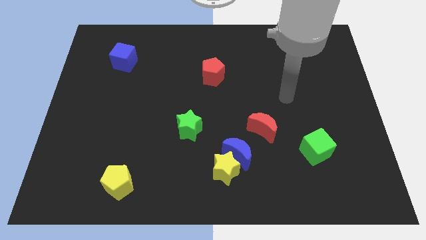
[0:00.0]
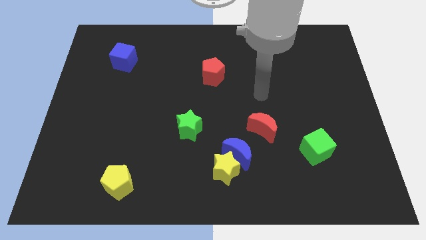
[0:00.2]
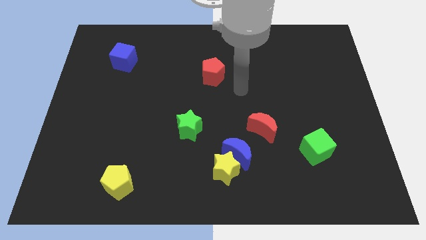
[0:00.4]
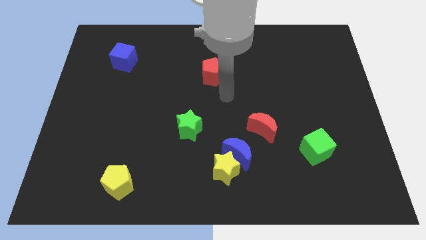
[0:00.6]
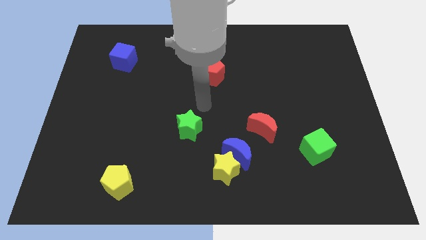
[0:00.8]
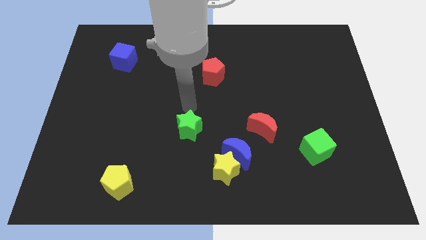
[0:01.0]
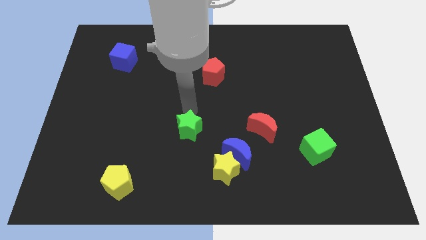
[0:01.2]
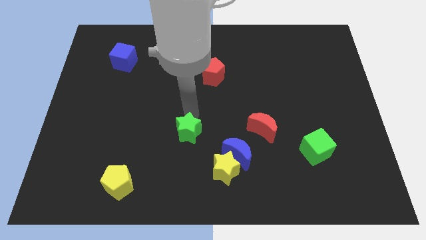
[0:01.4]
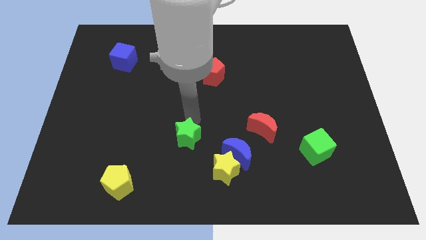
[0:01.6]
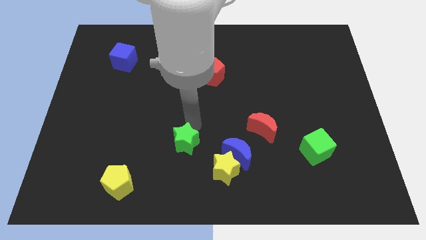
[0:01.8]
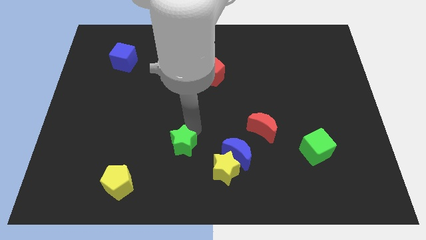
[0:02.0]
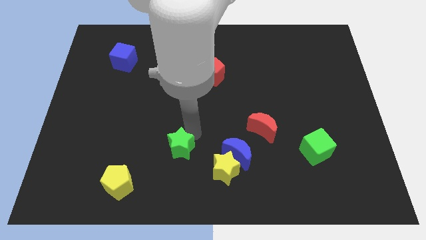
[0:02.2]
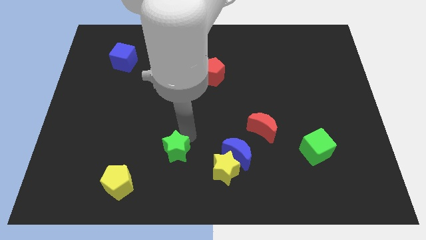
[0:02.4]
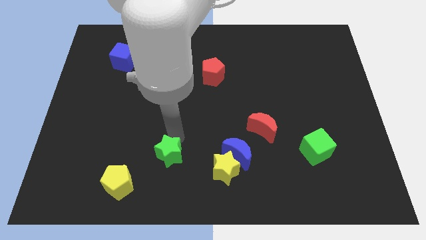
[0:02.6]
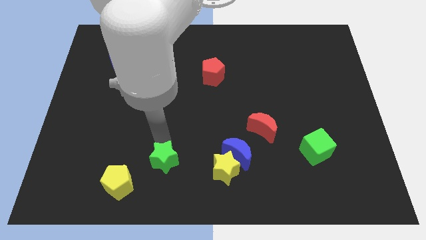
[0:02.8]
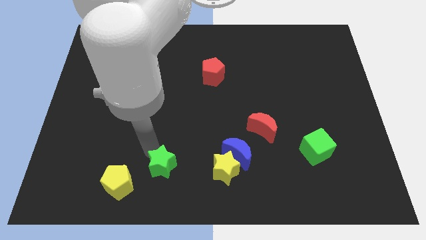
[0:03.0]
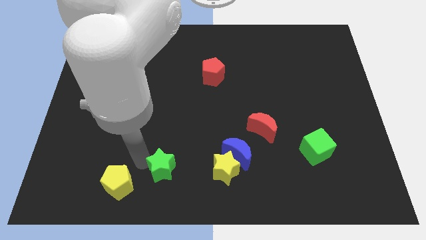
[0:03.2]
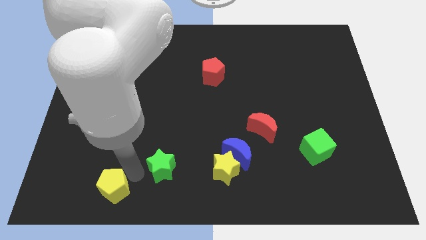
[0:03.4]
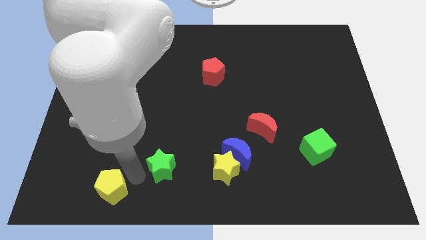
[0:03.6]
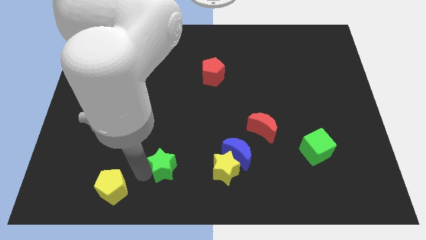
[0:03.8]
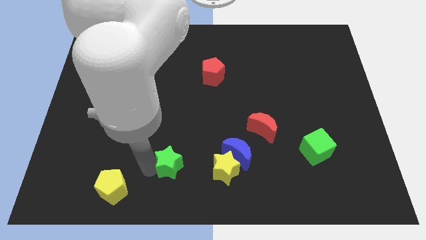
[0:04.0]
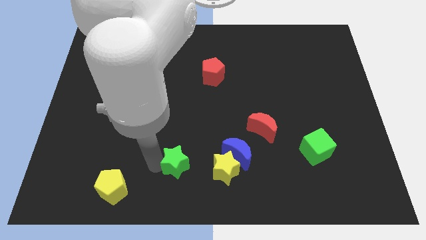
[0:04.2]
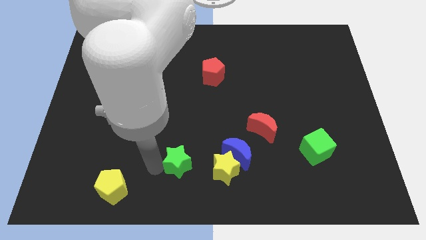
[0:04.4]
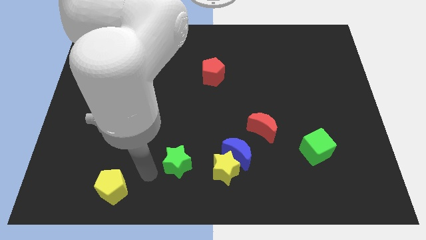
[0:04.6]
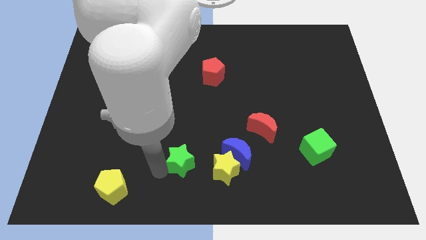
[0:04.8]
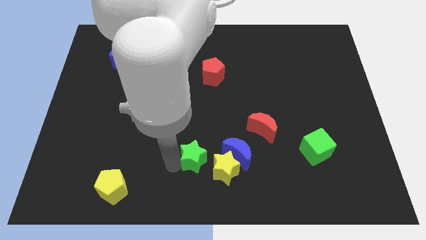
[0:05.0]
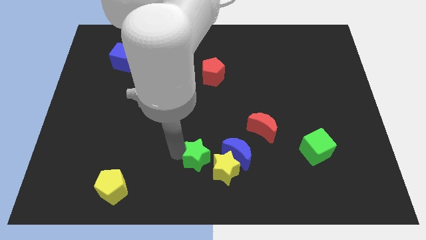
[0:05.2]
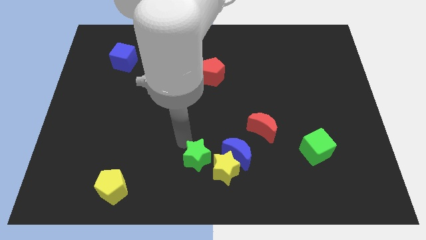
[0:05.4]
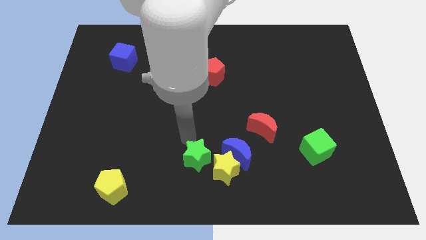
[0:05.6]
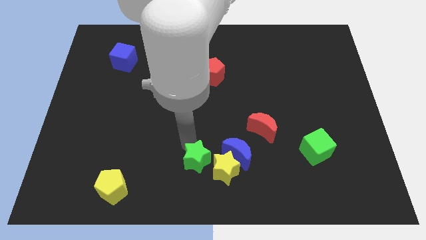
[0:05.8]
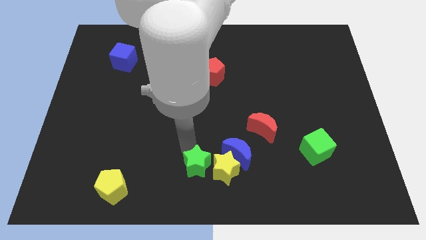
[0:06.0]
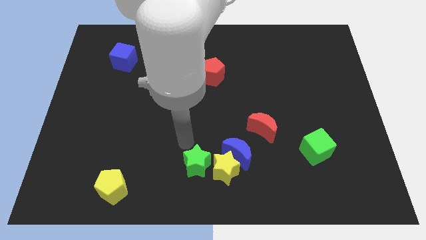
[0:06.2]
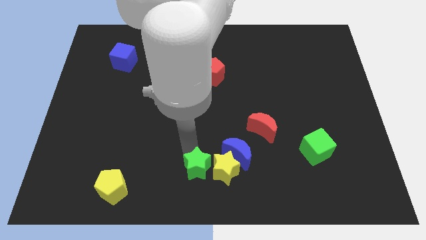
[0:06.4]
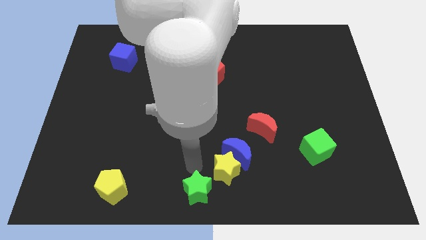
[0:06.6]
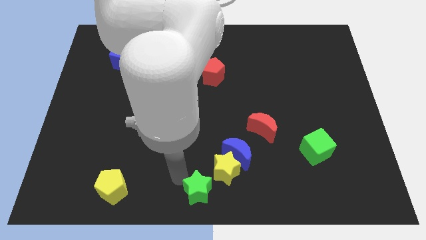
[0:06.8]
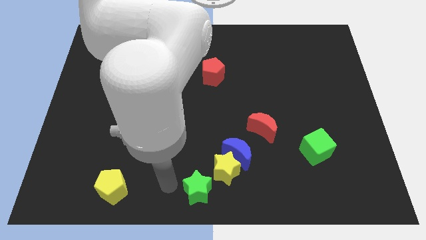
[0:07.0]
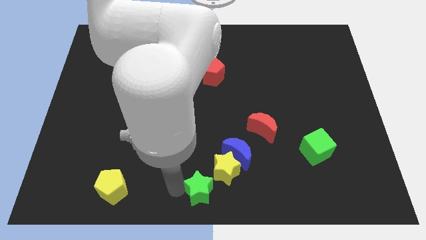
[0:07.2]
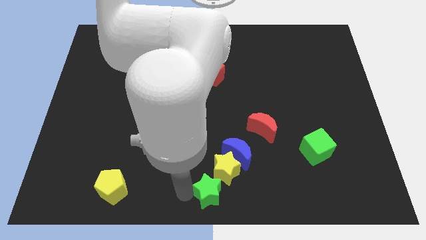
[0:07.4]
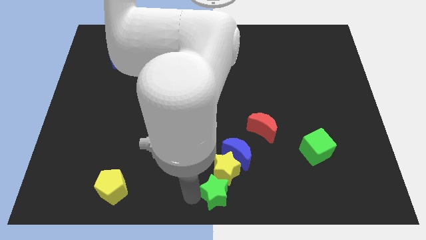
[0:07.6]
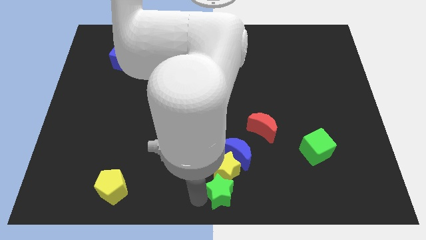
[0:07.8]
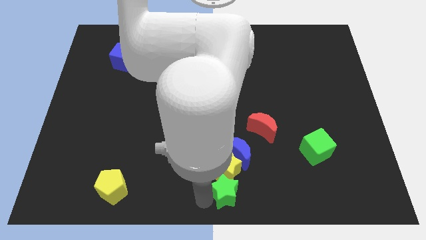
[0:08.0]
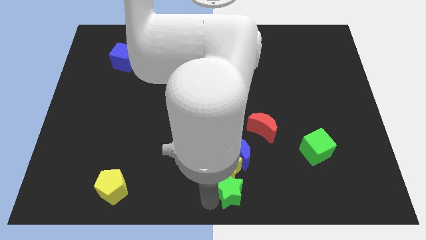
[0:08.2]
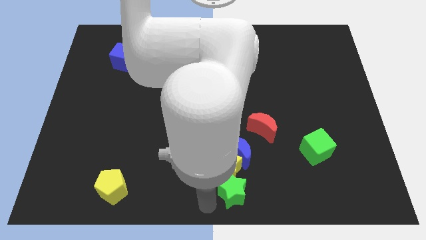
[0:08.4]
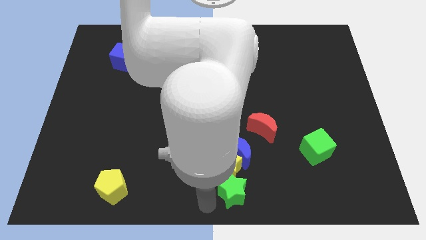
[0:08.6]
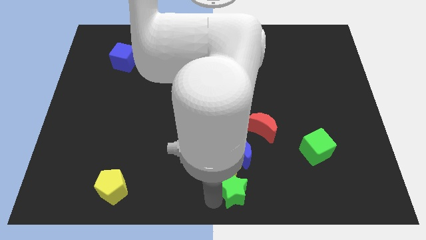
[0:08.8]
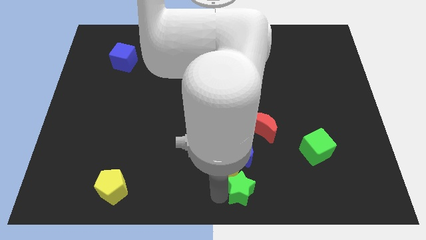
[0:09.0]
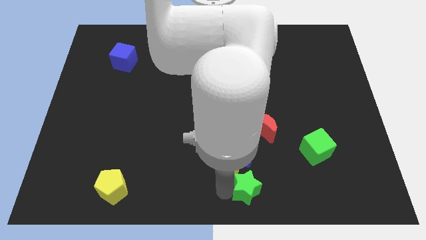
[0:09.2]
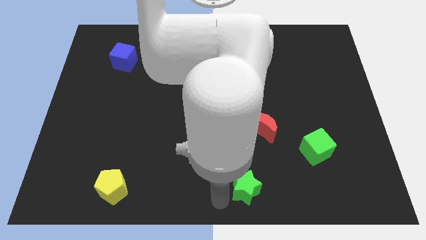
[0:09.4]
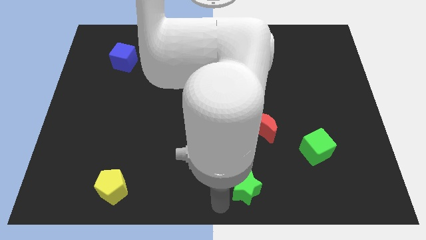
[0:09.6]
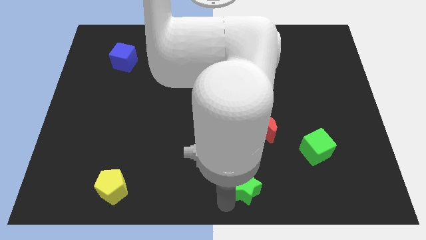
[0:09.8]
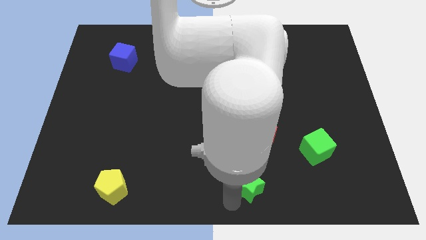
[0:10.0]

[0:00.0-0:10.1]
move the green star to the right side of the yellow star
